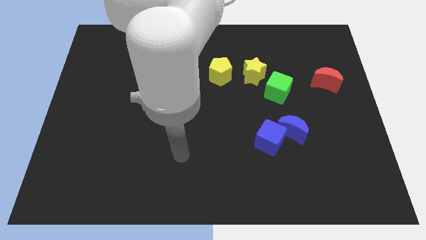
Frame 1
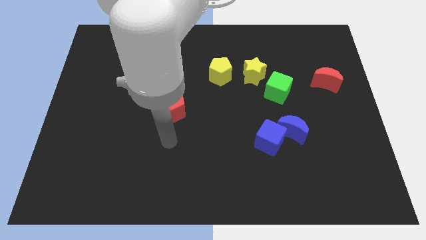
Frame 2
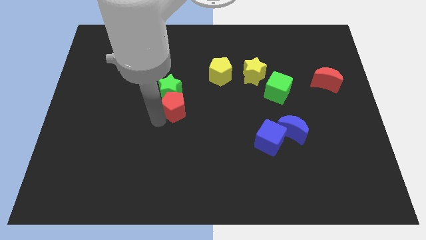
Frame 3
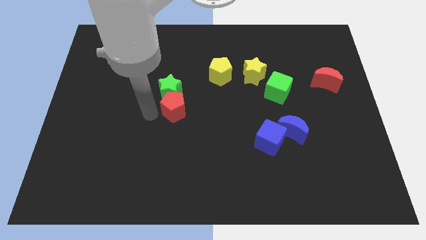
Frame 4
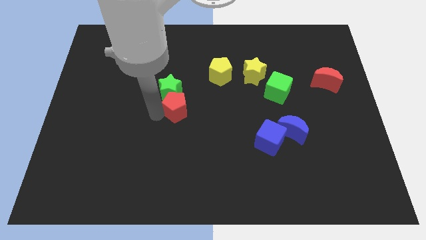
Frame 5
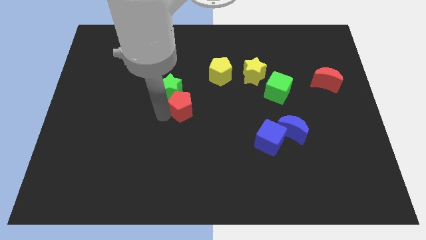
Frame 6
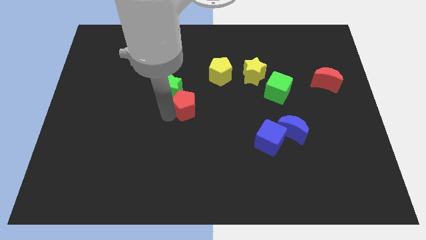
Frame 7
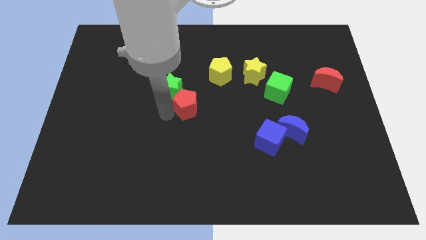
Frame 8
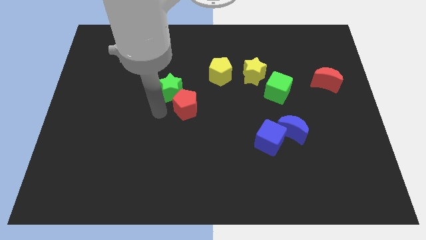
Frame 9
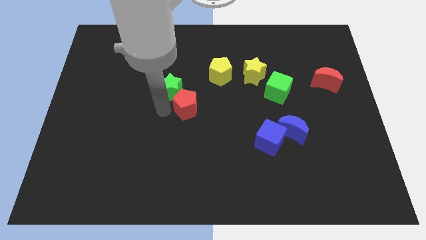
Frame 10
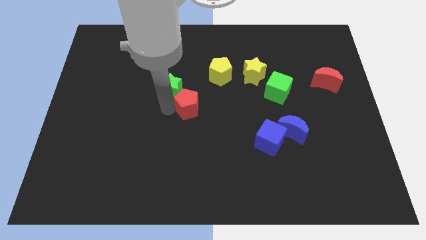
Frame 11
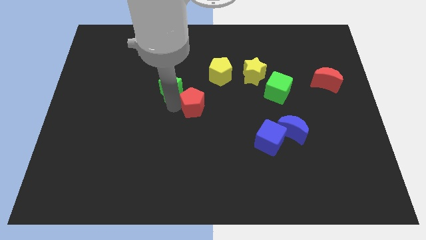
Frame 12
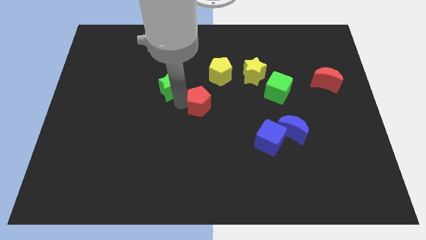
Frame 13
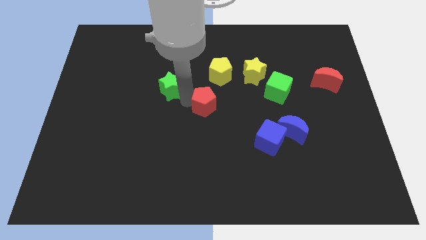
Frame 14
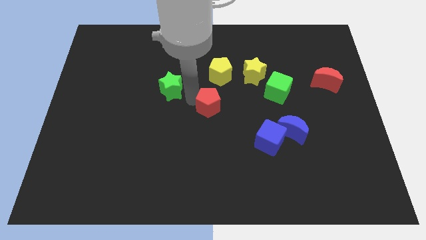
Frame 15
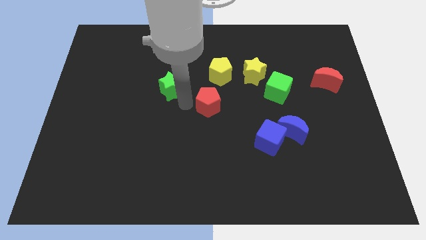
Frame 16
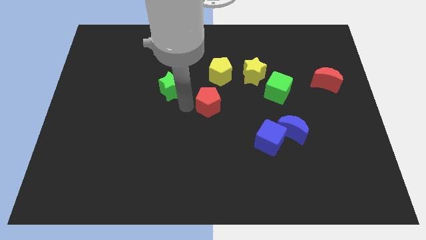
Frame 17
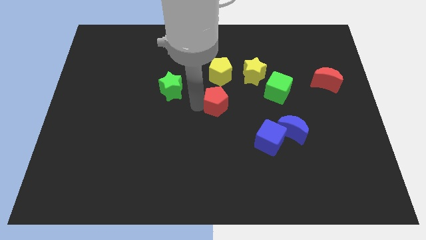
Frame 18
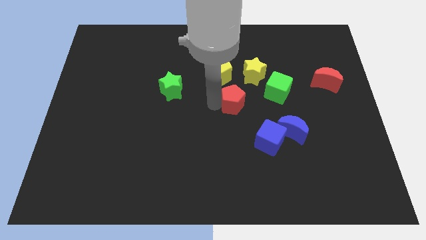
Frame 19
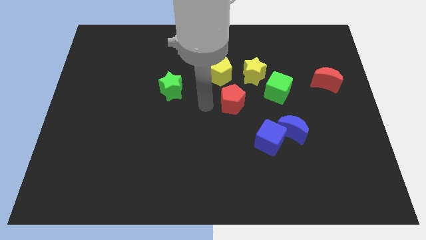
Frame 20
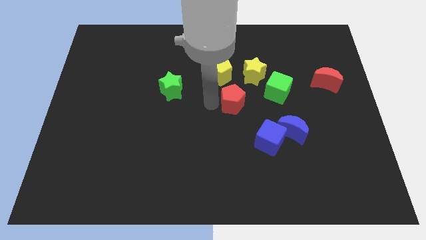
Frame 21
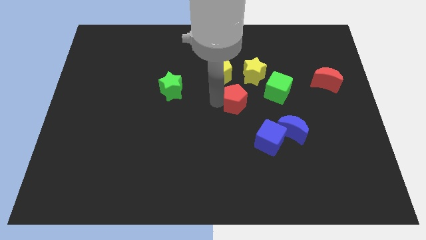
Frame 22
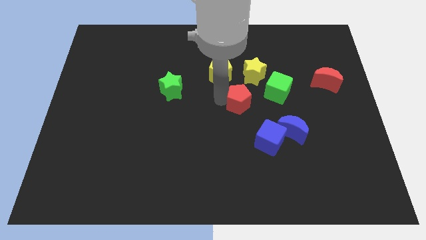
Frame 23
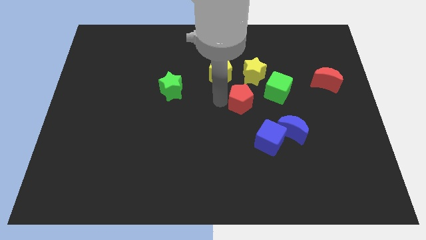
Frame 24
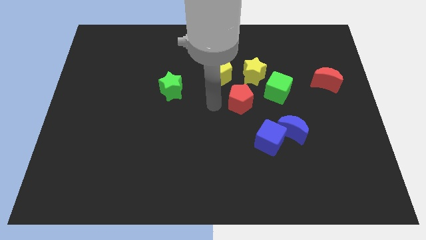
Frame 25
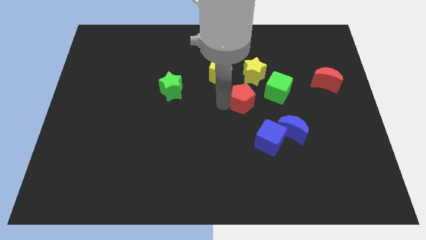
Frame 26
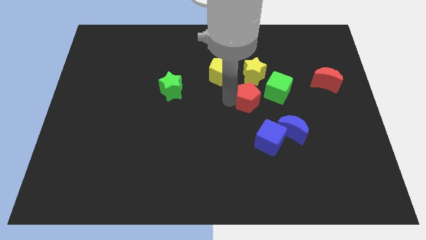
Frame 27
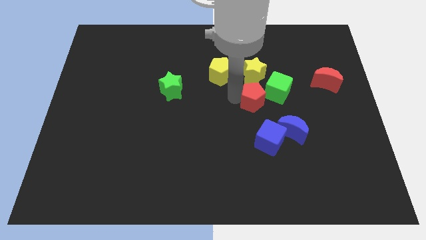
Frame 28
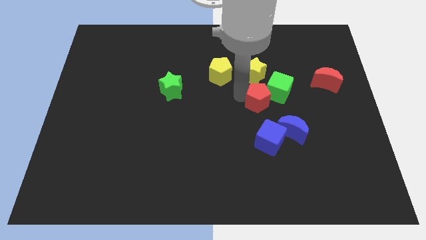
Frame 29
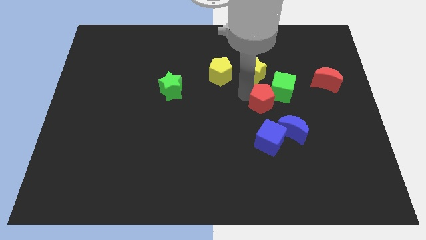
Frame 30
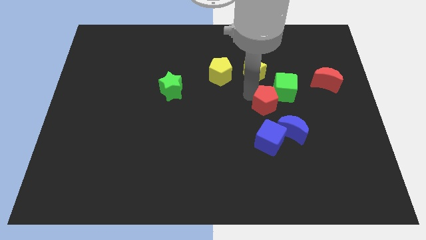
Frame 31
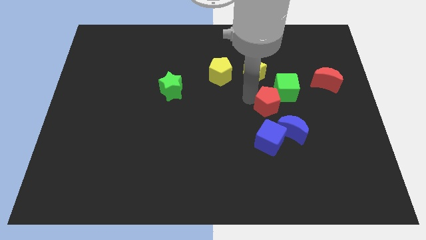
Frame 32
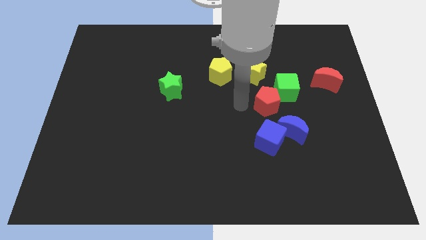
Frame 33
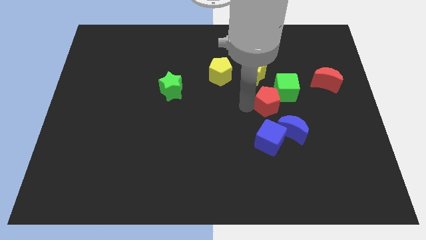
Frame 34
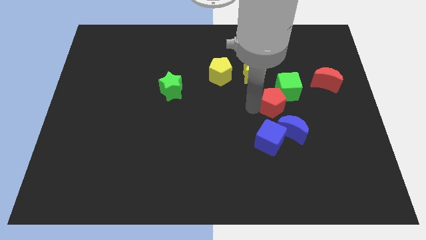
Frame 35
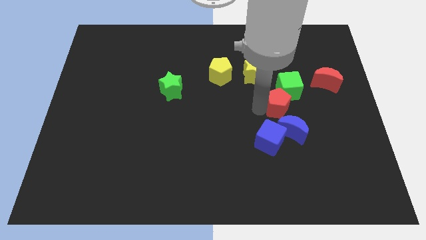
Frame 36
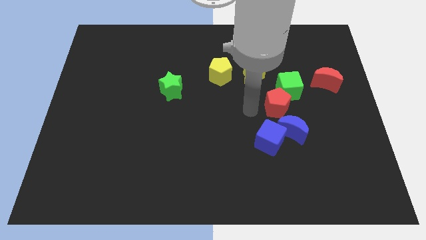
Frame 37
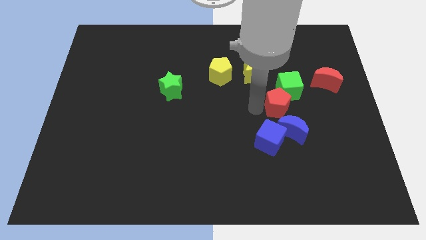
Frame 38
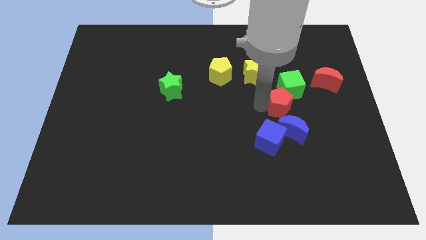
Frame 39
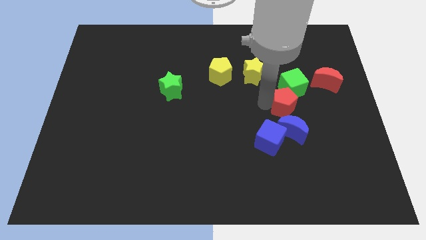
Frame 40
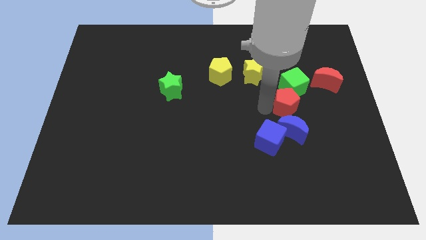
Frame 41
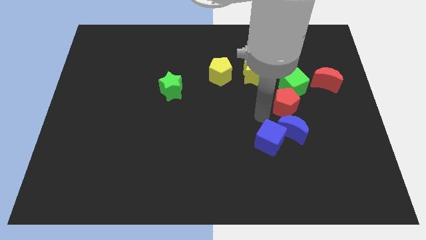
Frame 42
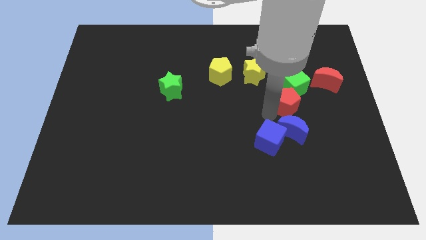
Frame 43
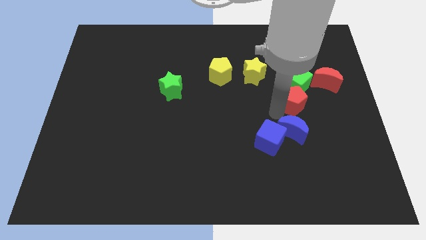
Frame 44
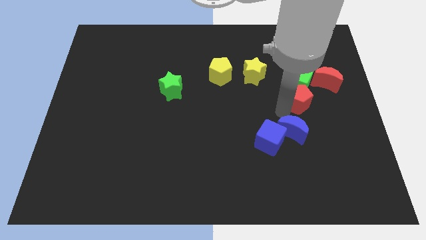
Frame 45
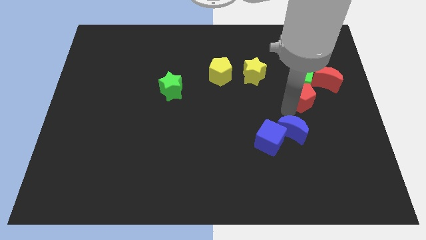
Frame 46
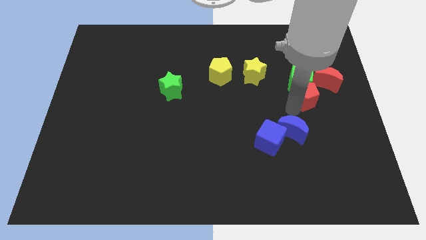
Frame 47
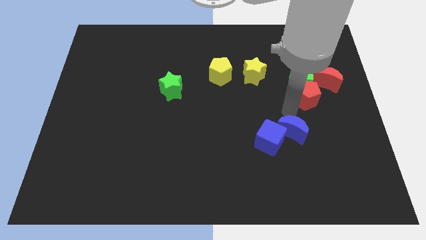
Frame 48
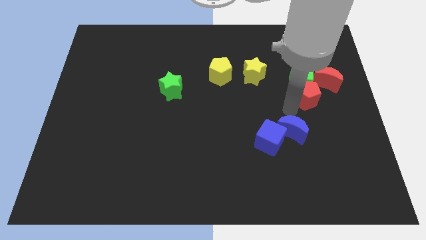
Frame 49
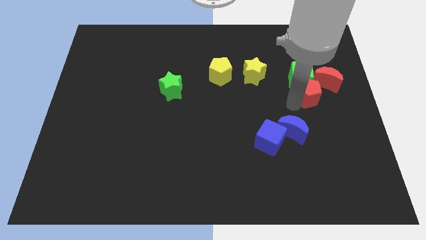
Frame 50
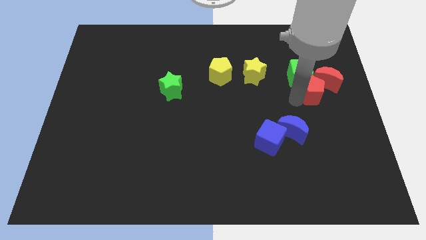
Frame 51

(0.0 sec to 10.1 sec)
move the red pentagon next to the red moon

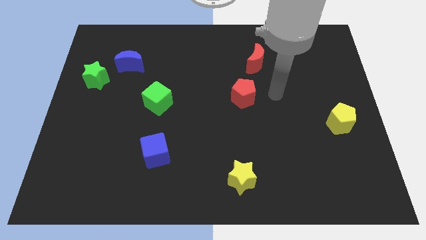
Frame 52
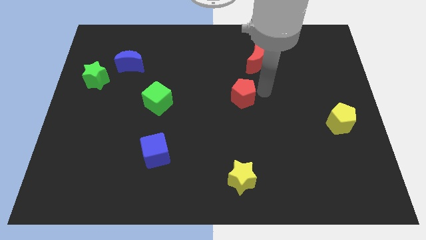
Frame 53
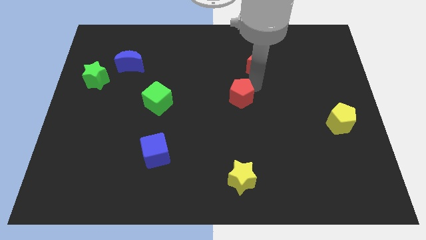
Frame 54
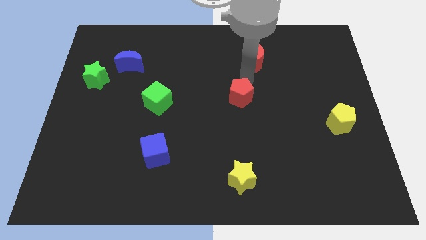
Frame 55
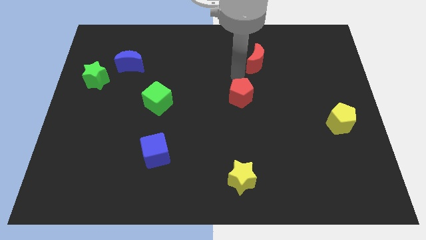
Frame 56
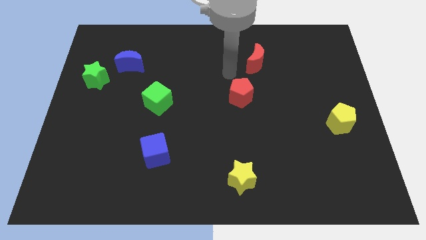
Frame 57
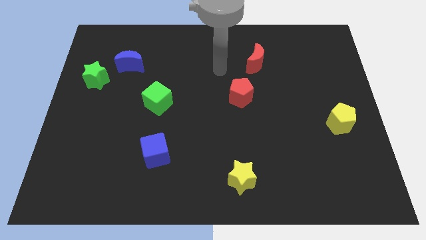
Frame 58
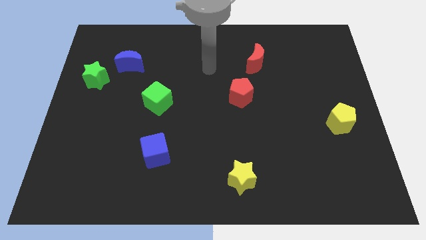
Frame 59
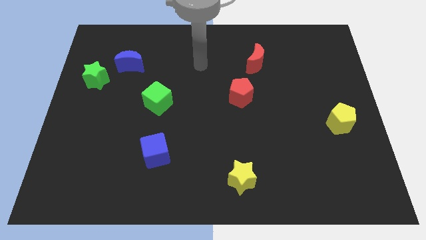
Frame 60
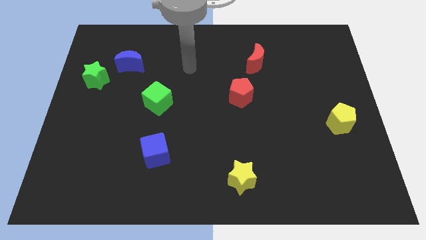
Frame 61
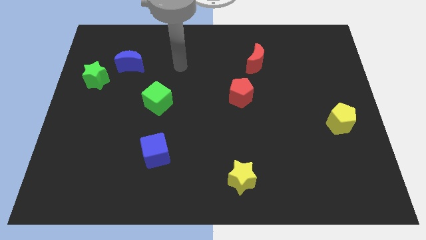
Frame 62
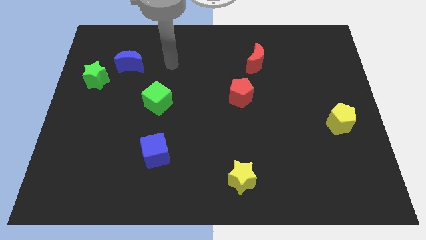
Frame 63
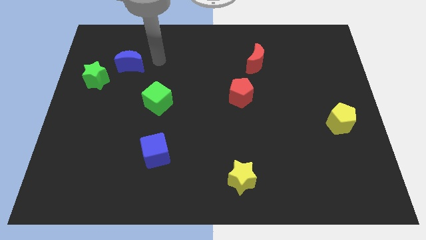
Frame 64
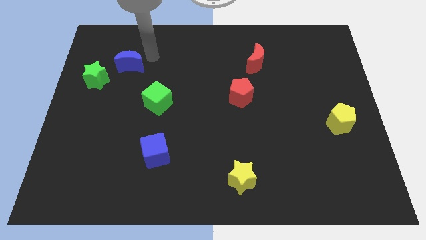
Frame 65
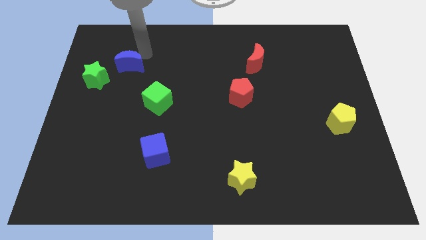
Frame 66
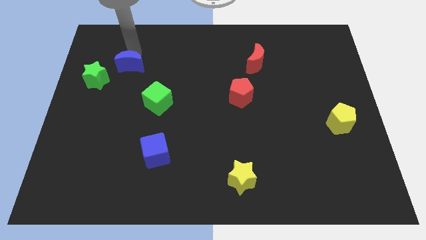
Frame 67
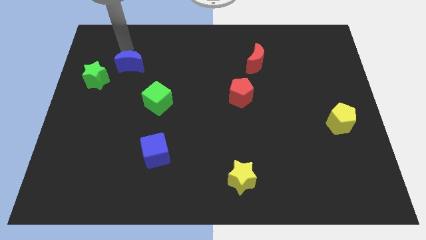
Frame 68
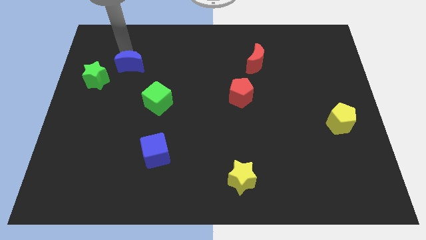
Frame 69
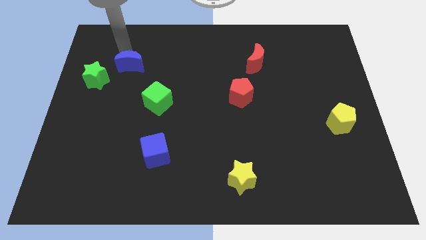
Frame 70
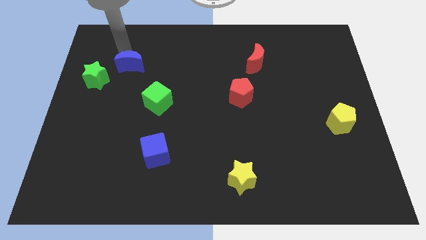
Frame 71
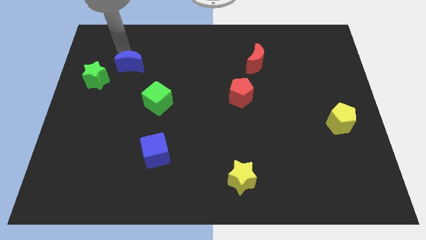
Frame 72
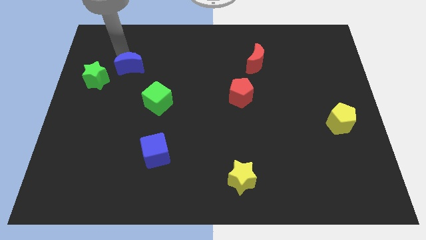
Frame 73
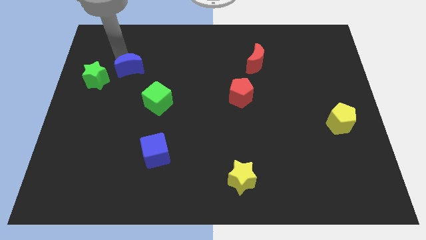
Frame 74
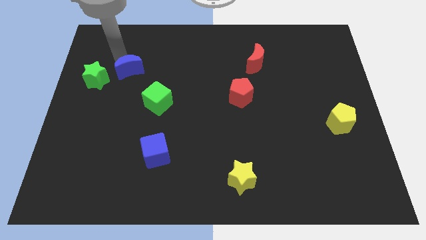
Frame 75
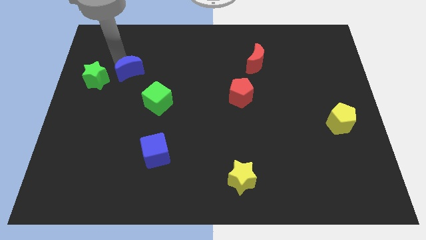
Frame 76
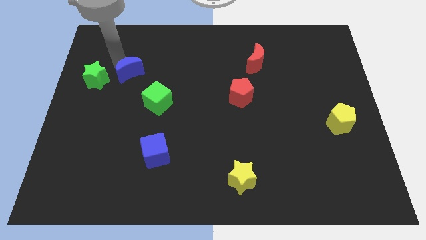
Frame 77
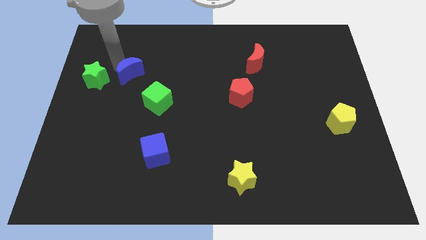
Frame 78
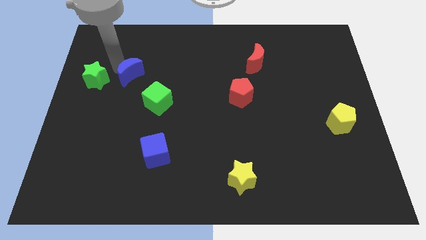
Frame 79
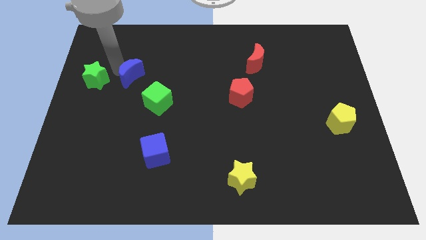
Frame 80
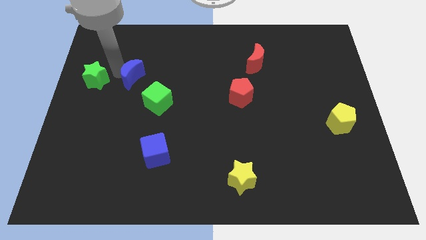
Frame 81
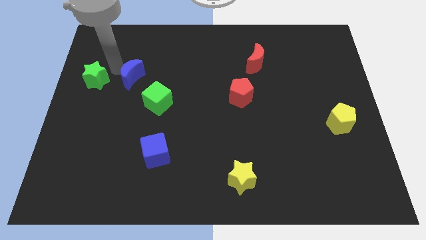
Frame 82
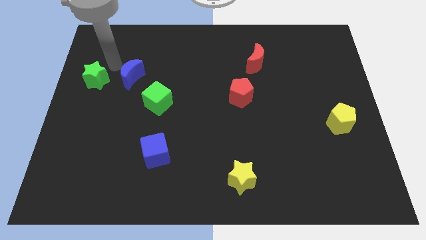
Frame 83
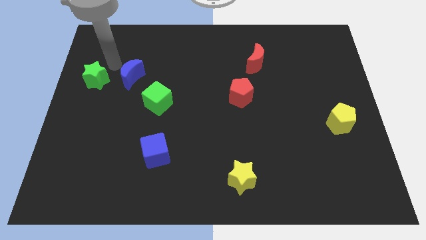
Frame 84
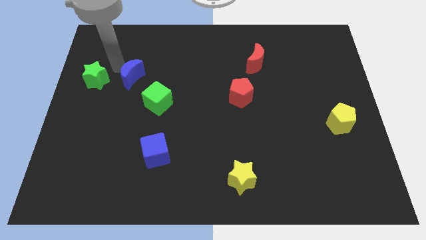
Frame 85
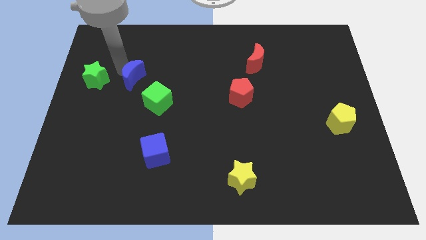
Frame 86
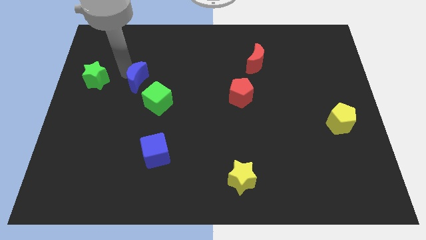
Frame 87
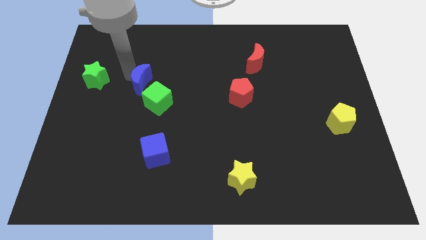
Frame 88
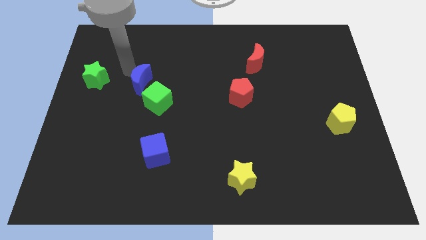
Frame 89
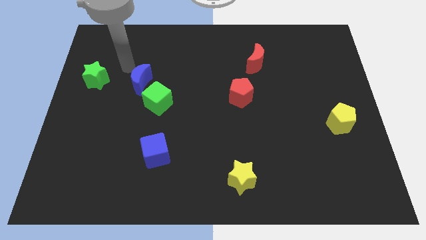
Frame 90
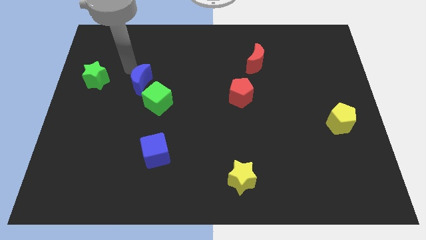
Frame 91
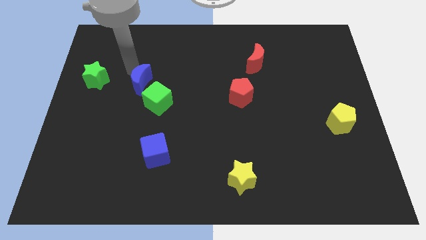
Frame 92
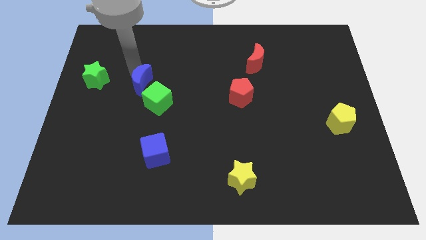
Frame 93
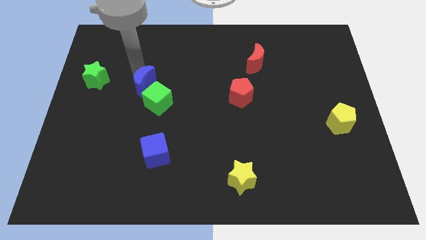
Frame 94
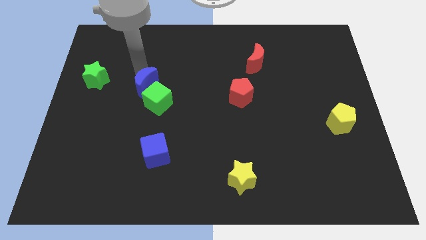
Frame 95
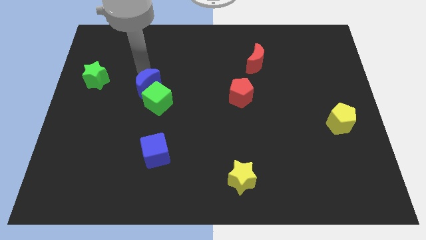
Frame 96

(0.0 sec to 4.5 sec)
slide the blue moon to the green cube
